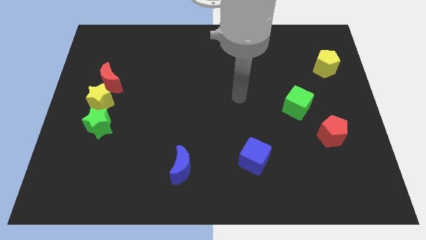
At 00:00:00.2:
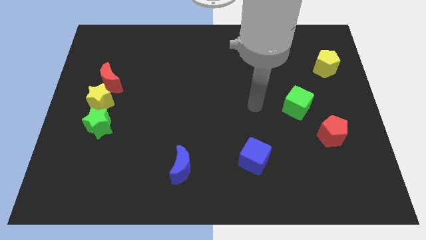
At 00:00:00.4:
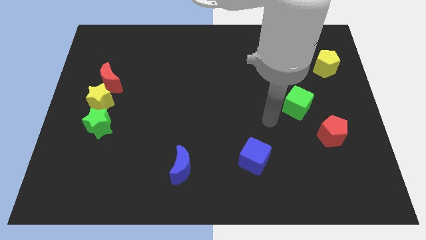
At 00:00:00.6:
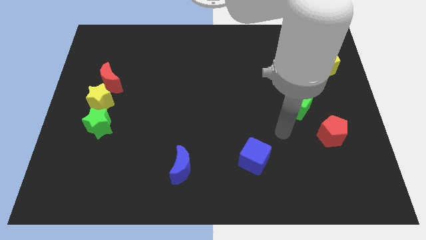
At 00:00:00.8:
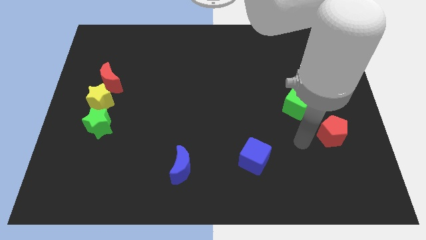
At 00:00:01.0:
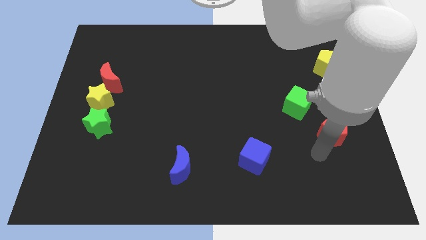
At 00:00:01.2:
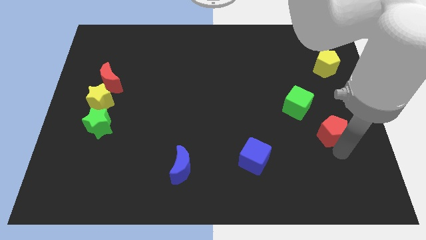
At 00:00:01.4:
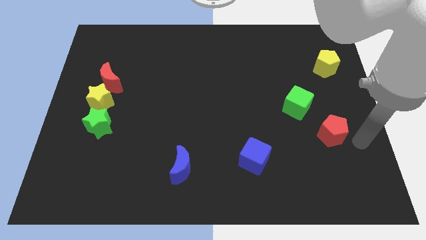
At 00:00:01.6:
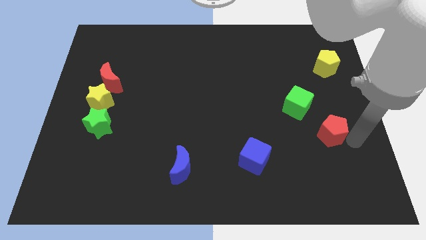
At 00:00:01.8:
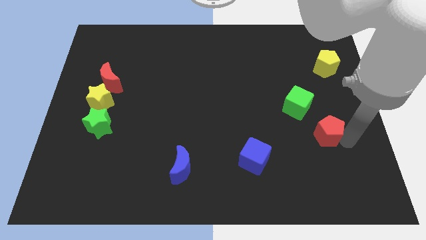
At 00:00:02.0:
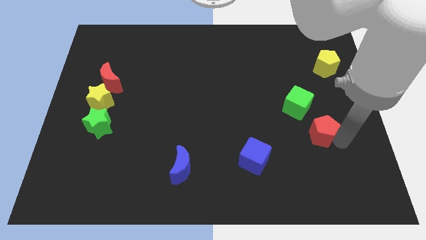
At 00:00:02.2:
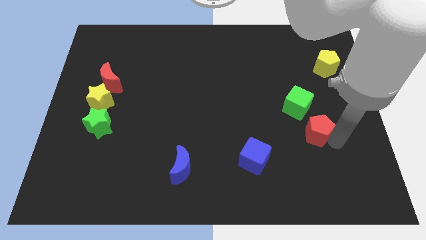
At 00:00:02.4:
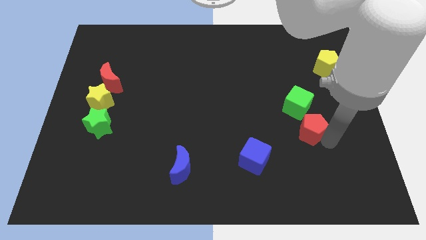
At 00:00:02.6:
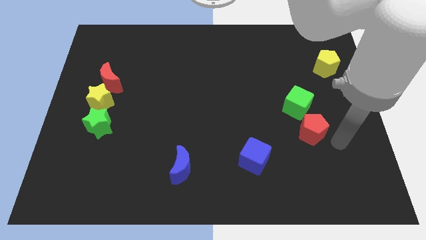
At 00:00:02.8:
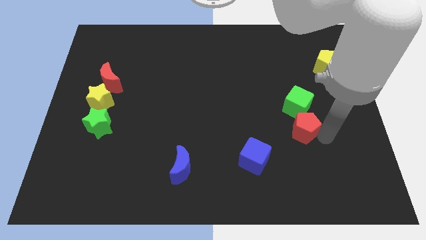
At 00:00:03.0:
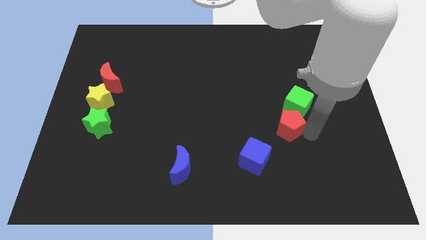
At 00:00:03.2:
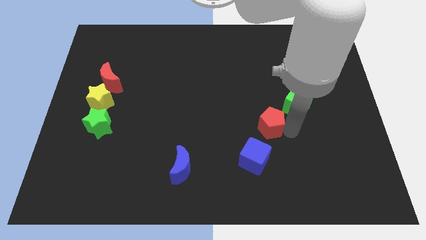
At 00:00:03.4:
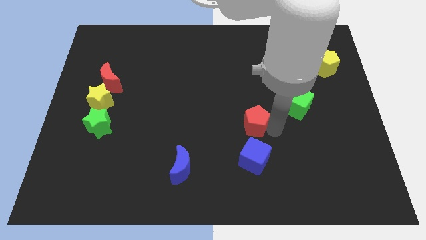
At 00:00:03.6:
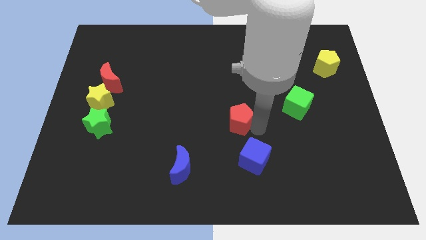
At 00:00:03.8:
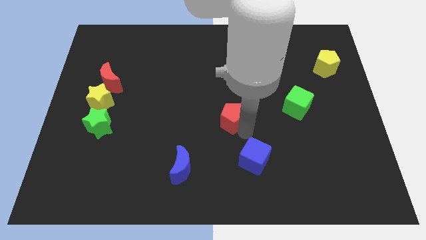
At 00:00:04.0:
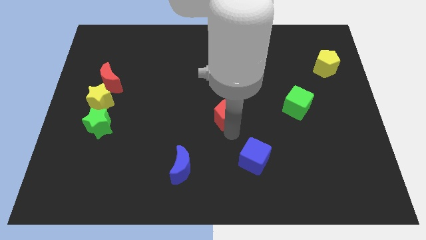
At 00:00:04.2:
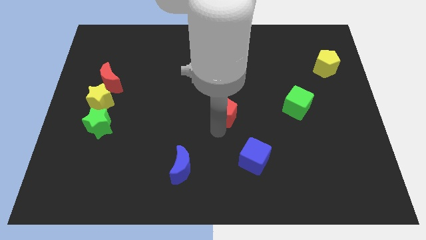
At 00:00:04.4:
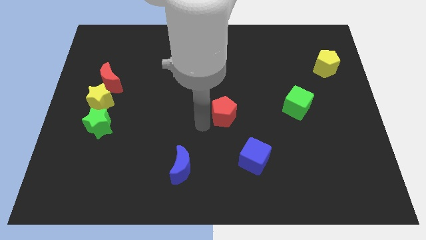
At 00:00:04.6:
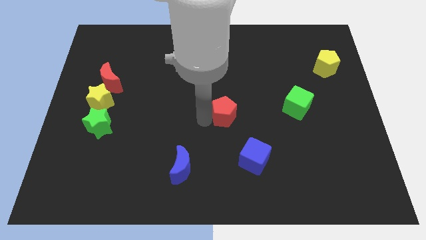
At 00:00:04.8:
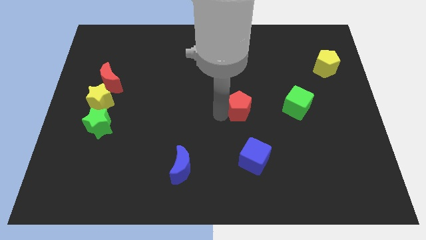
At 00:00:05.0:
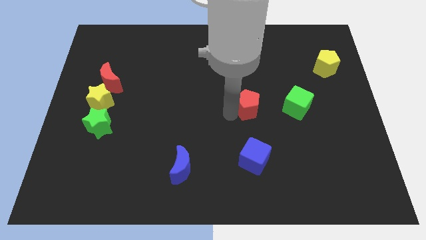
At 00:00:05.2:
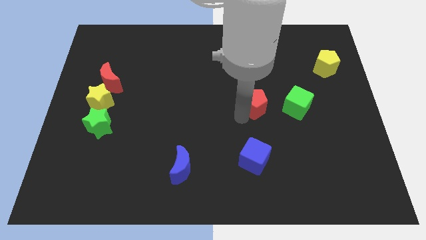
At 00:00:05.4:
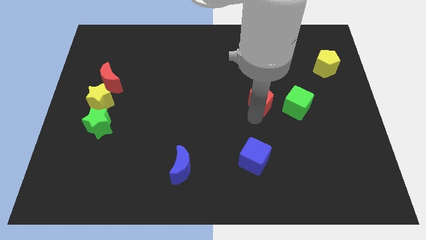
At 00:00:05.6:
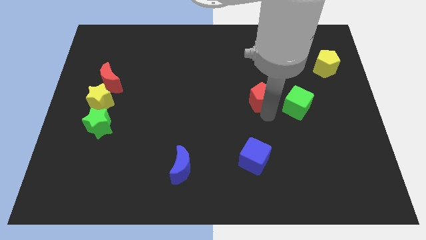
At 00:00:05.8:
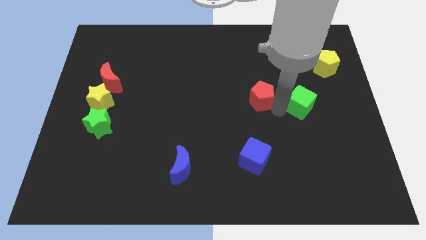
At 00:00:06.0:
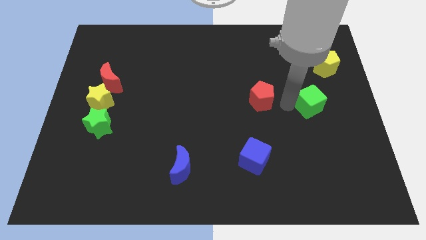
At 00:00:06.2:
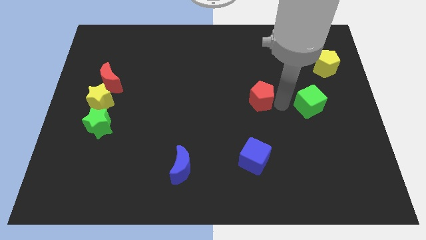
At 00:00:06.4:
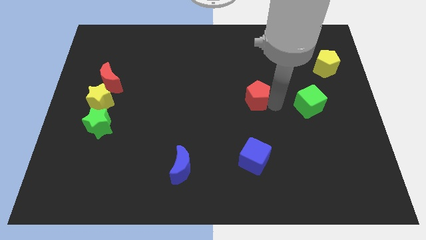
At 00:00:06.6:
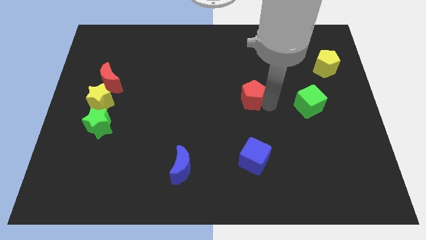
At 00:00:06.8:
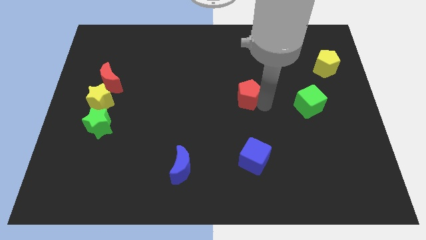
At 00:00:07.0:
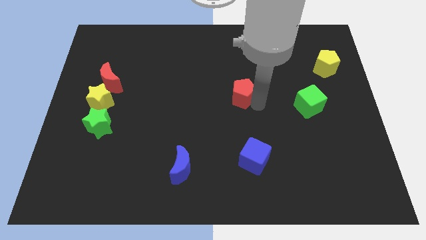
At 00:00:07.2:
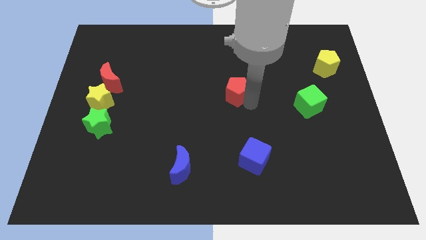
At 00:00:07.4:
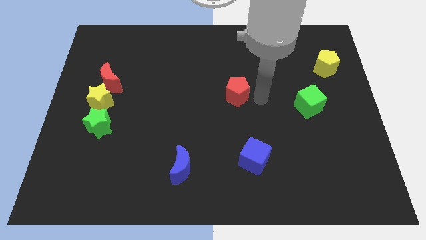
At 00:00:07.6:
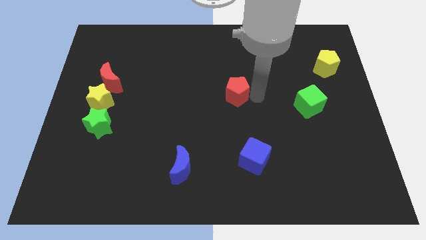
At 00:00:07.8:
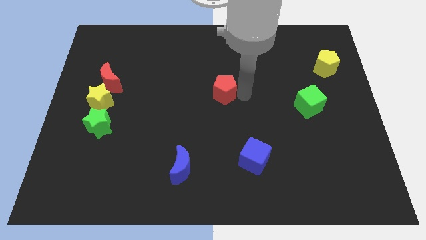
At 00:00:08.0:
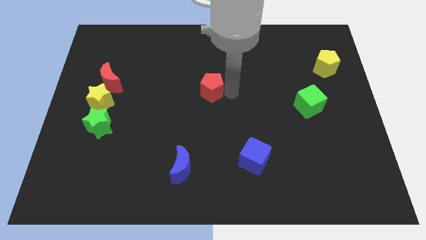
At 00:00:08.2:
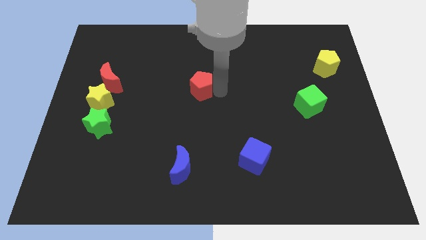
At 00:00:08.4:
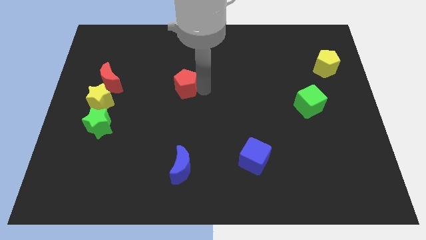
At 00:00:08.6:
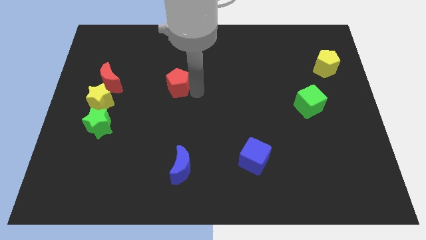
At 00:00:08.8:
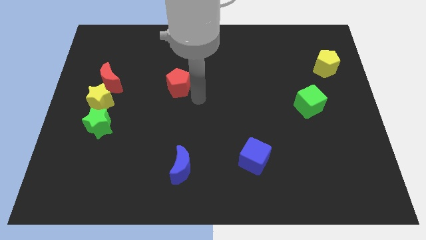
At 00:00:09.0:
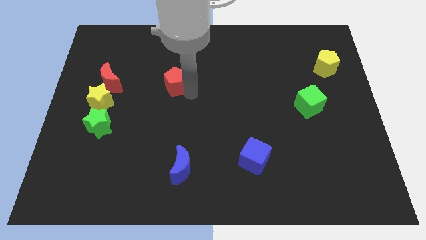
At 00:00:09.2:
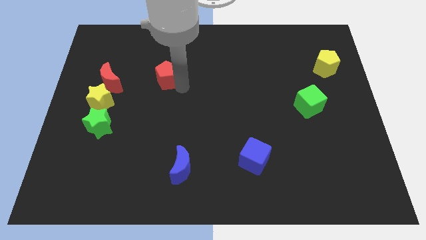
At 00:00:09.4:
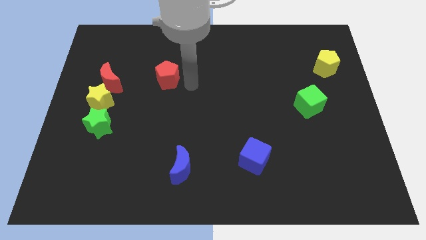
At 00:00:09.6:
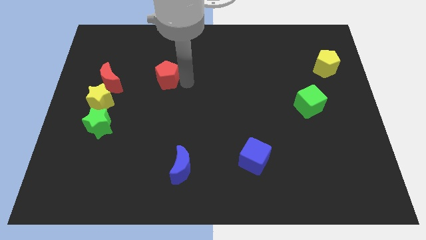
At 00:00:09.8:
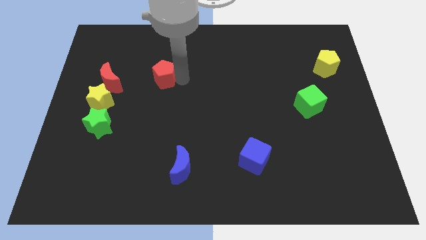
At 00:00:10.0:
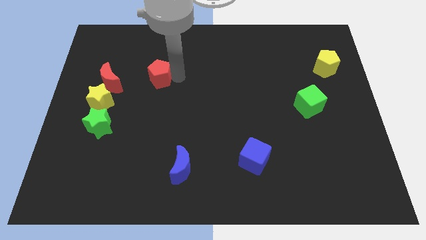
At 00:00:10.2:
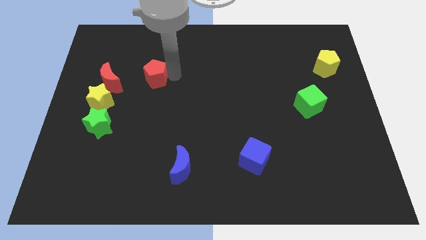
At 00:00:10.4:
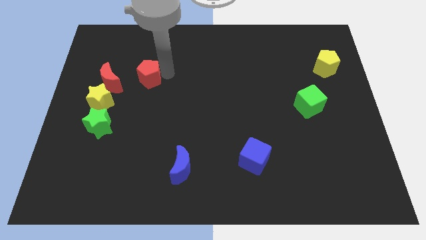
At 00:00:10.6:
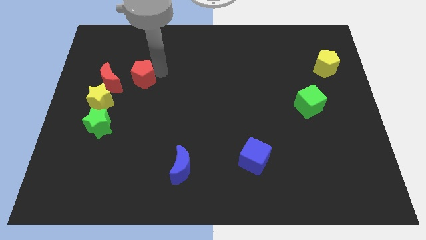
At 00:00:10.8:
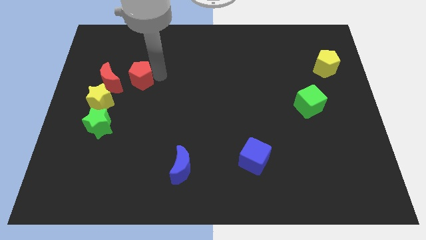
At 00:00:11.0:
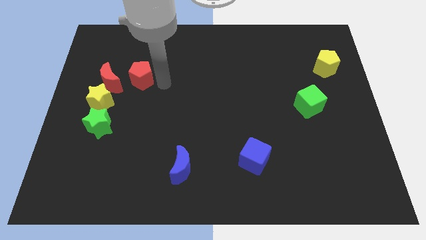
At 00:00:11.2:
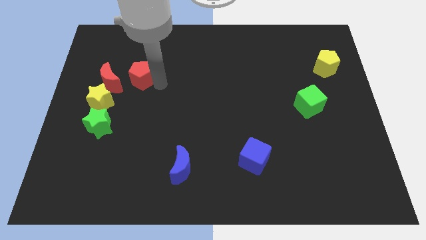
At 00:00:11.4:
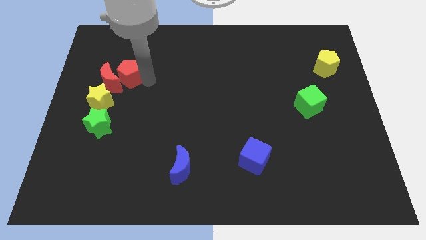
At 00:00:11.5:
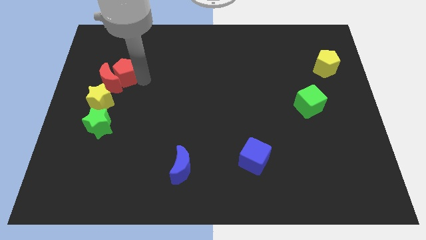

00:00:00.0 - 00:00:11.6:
move the red pentagon above the yellow star

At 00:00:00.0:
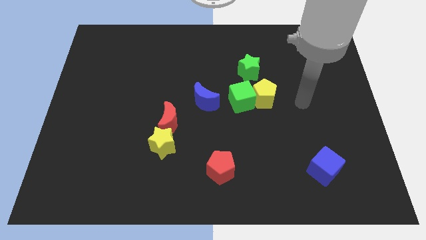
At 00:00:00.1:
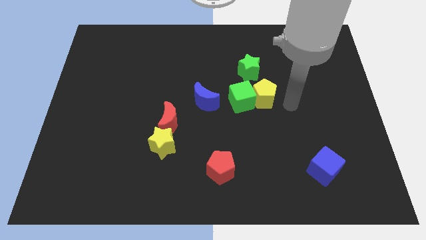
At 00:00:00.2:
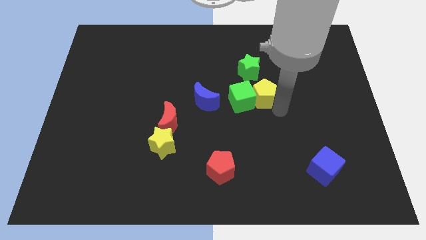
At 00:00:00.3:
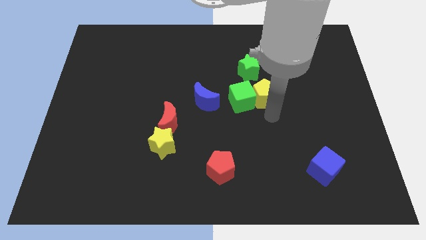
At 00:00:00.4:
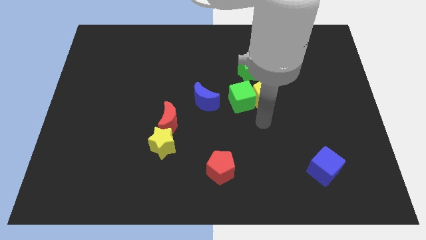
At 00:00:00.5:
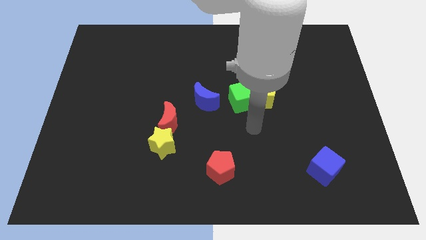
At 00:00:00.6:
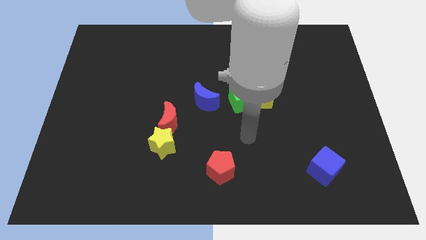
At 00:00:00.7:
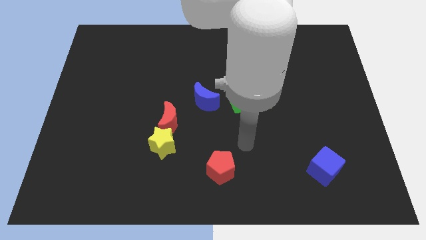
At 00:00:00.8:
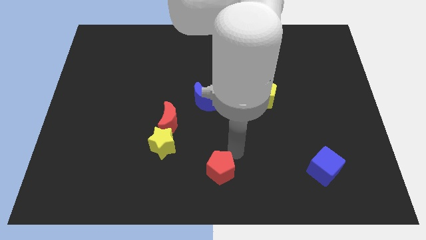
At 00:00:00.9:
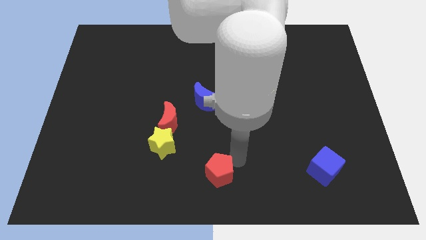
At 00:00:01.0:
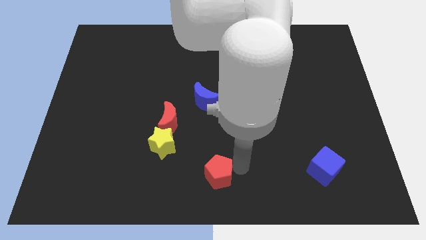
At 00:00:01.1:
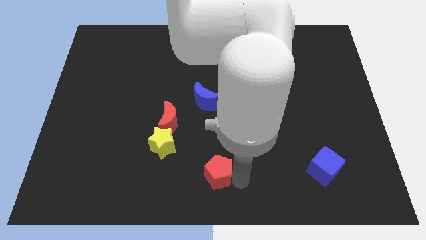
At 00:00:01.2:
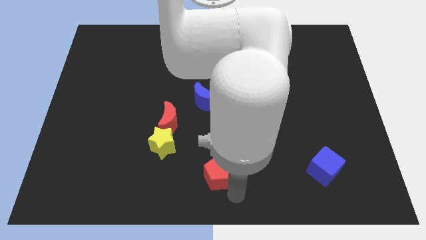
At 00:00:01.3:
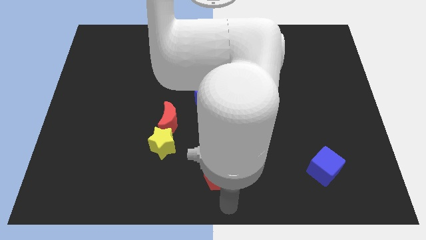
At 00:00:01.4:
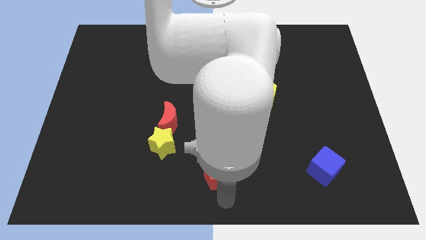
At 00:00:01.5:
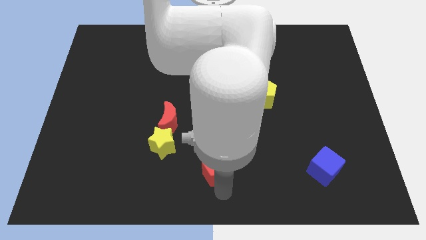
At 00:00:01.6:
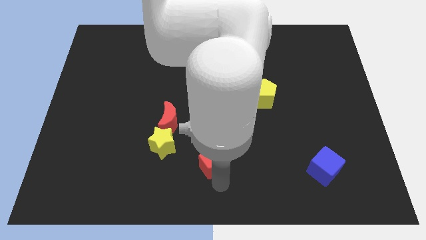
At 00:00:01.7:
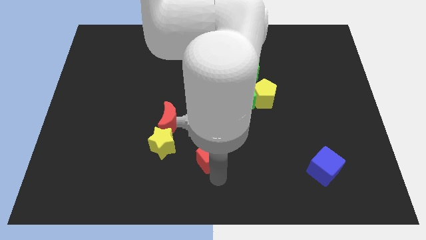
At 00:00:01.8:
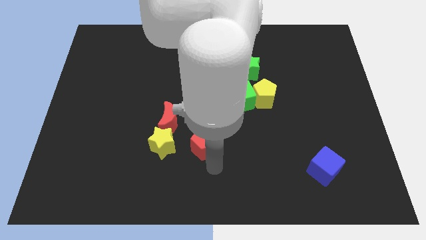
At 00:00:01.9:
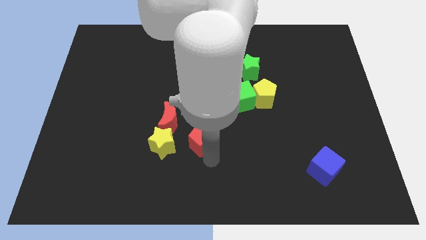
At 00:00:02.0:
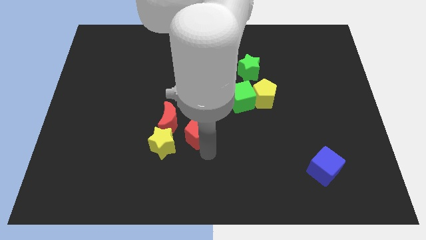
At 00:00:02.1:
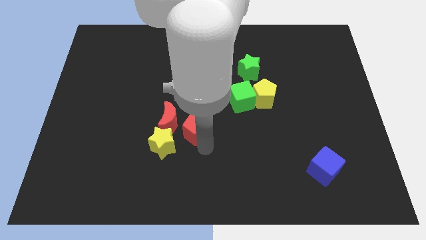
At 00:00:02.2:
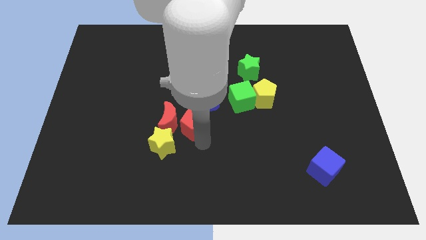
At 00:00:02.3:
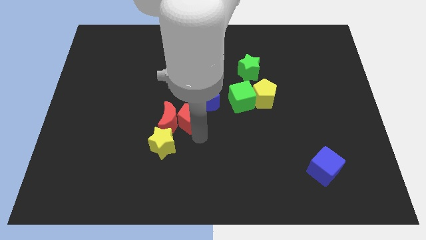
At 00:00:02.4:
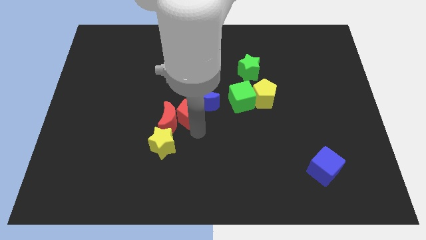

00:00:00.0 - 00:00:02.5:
put the red pentagon left of the blue moon
